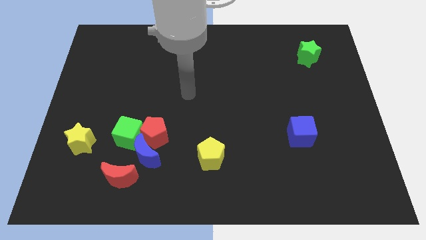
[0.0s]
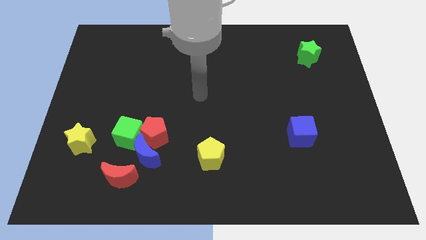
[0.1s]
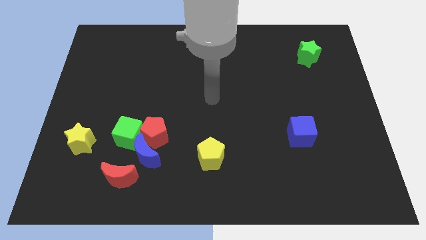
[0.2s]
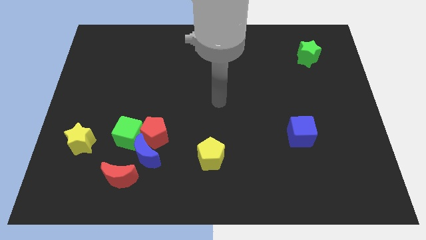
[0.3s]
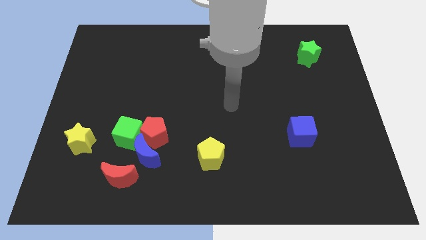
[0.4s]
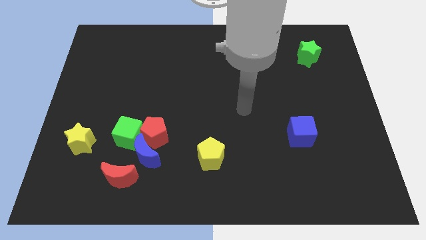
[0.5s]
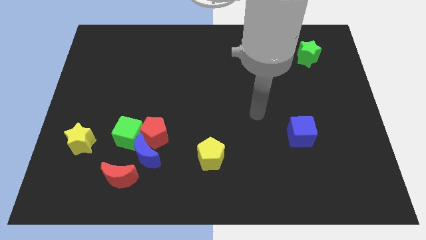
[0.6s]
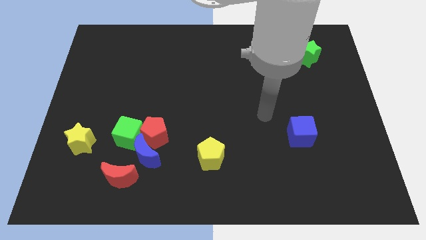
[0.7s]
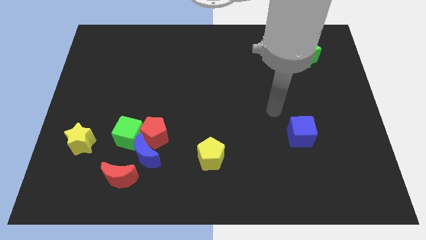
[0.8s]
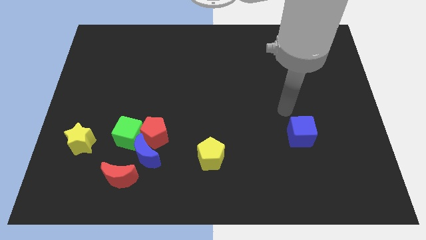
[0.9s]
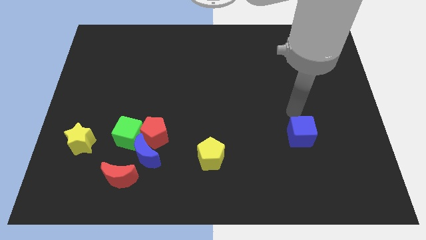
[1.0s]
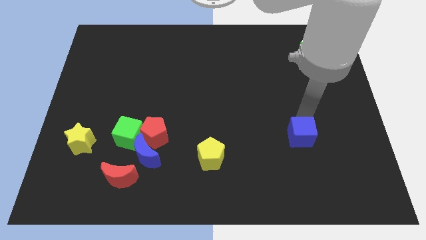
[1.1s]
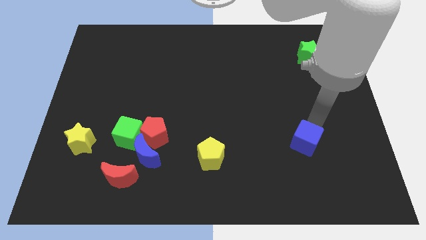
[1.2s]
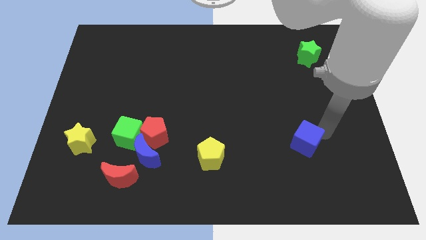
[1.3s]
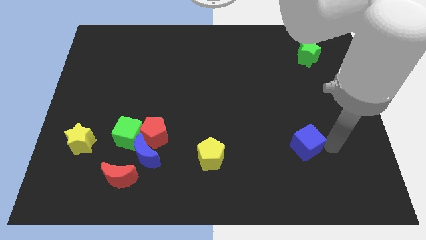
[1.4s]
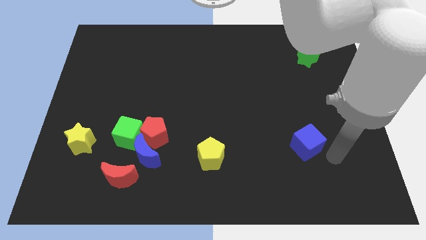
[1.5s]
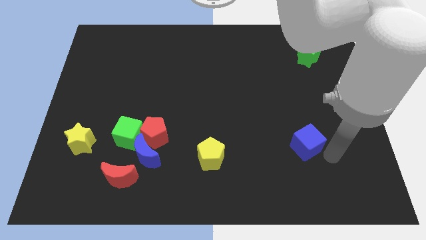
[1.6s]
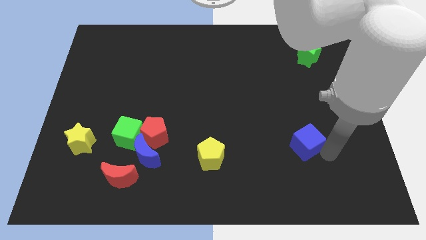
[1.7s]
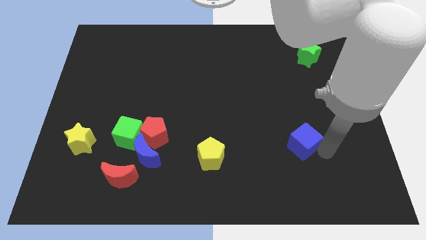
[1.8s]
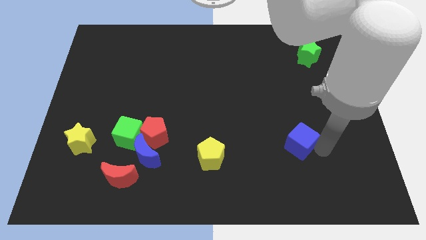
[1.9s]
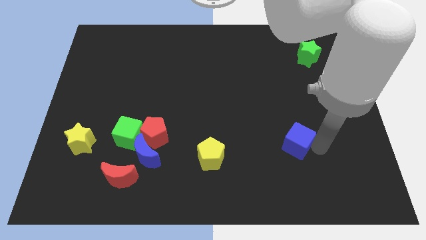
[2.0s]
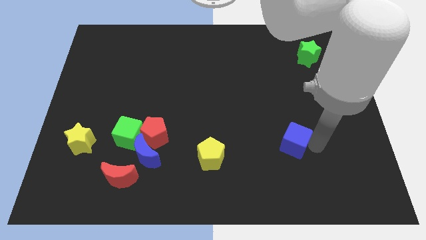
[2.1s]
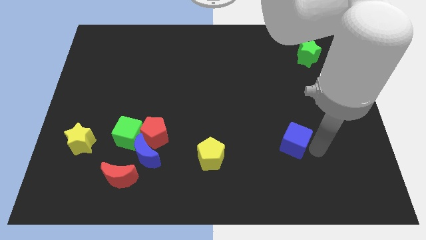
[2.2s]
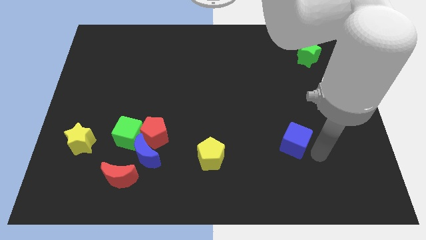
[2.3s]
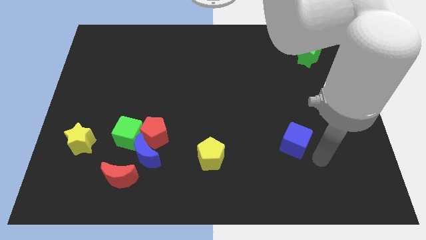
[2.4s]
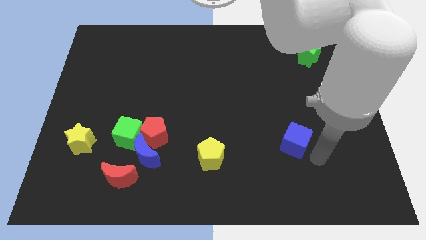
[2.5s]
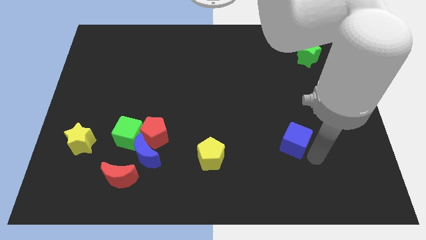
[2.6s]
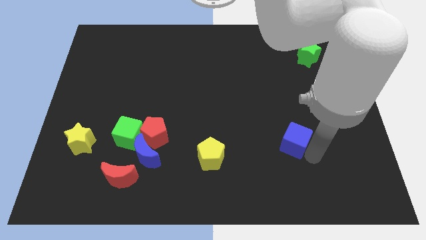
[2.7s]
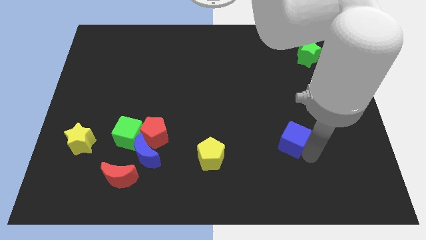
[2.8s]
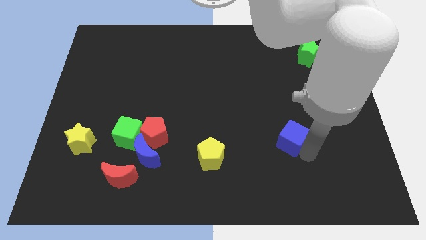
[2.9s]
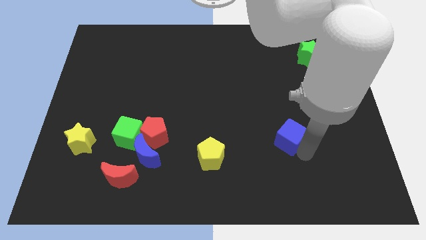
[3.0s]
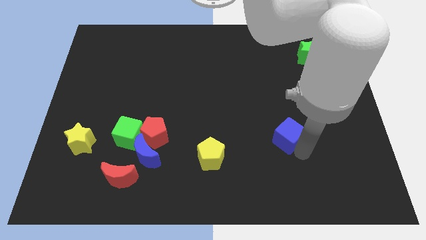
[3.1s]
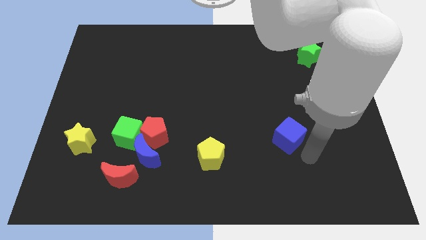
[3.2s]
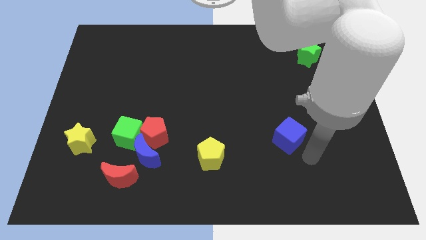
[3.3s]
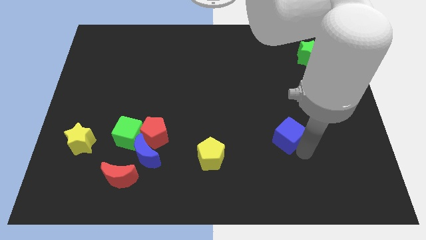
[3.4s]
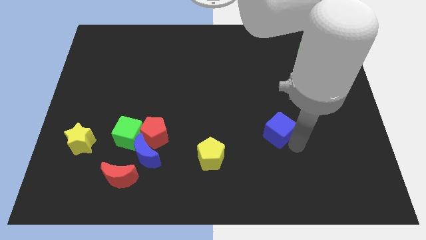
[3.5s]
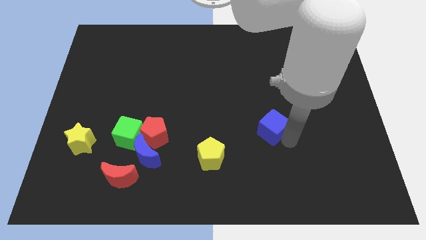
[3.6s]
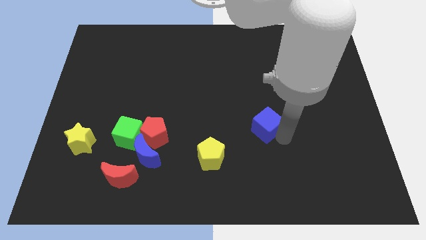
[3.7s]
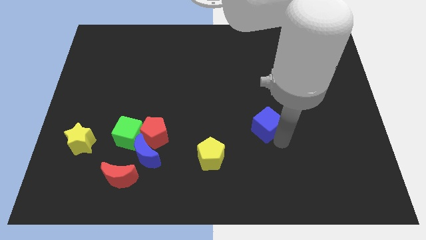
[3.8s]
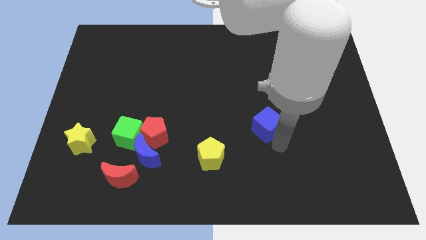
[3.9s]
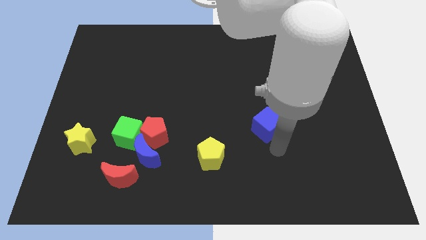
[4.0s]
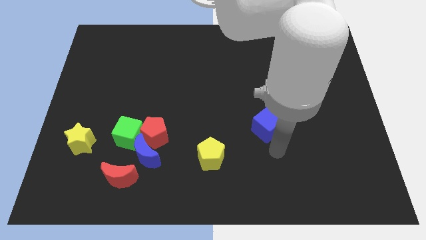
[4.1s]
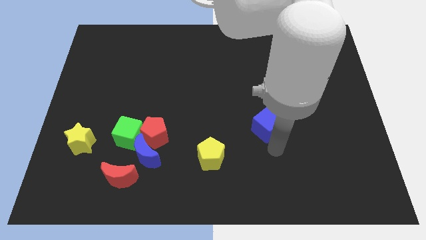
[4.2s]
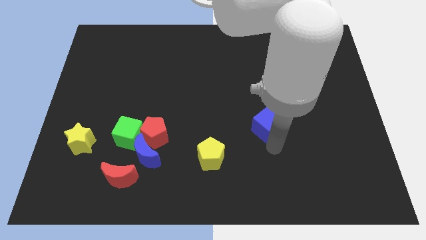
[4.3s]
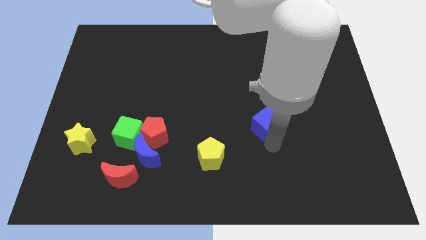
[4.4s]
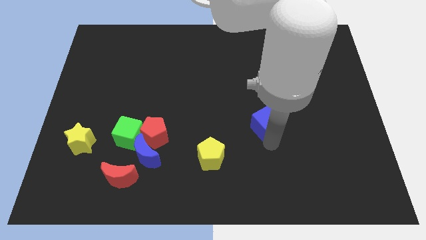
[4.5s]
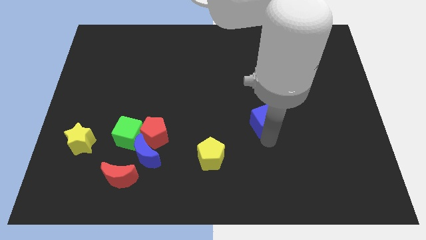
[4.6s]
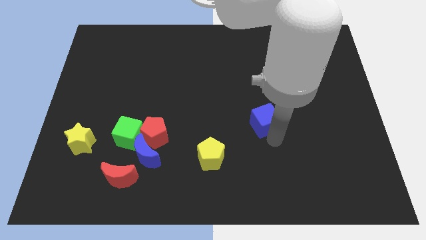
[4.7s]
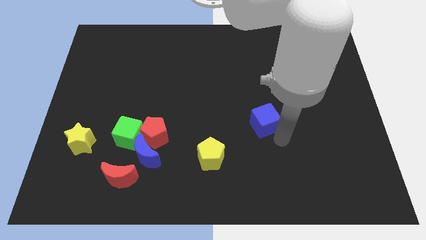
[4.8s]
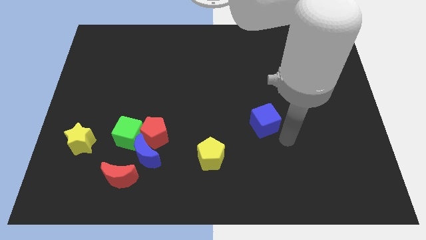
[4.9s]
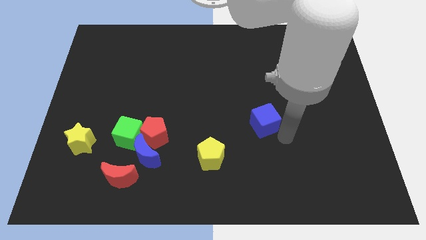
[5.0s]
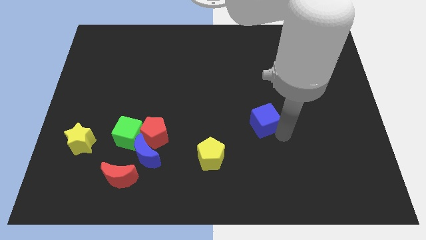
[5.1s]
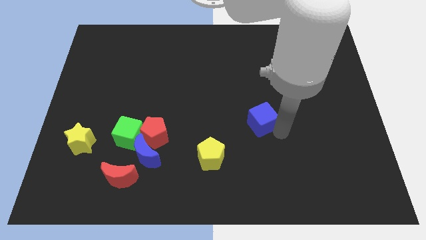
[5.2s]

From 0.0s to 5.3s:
move the blue cube to the middle

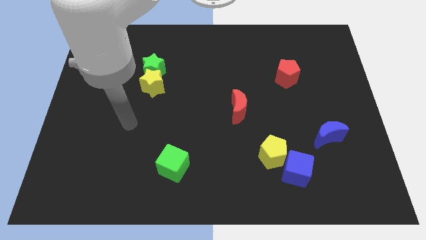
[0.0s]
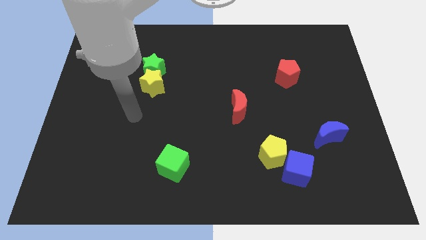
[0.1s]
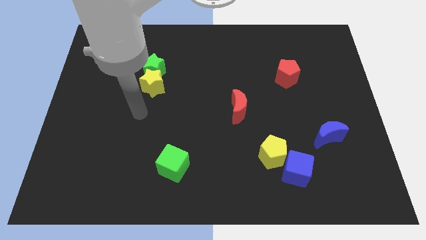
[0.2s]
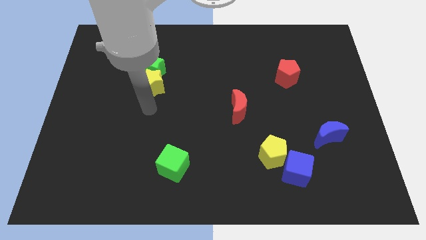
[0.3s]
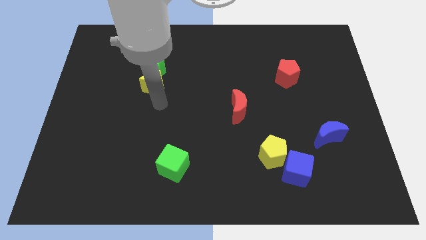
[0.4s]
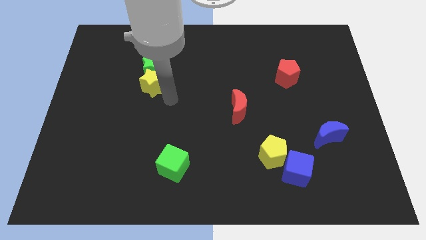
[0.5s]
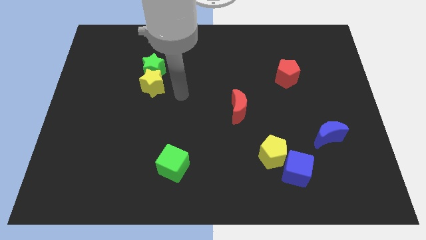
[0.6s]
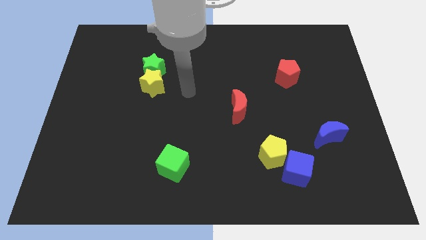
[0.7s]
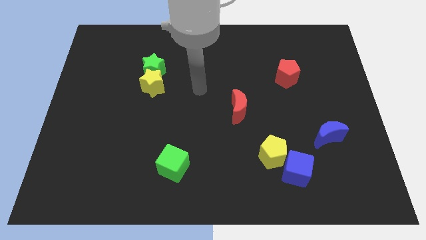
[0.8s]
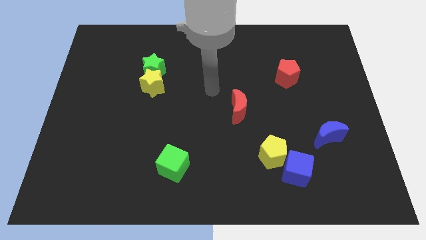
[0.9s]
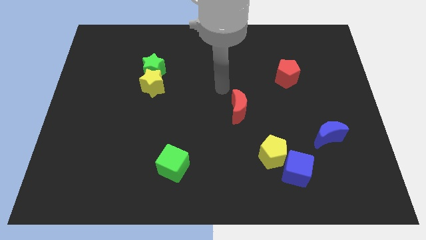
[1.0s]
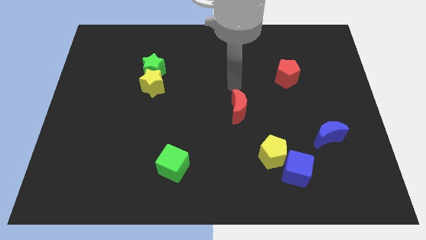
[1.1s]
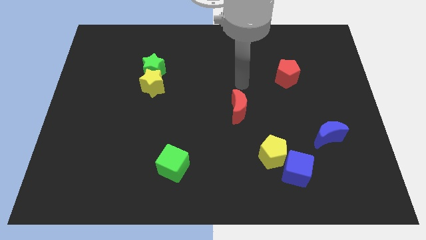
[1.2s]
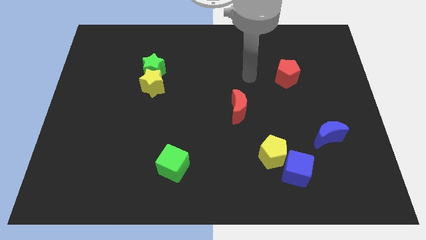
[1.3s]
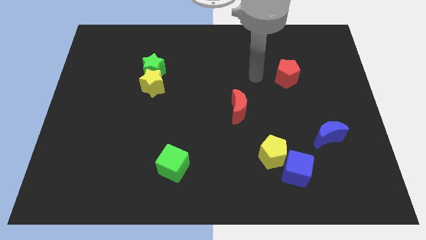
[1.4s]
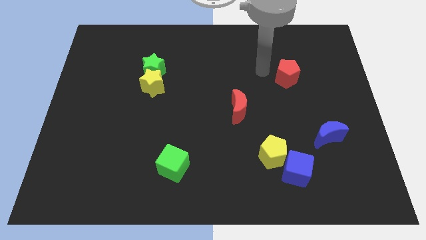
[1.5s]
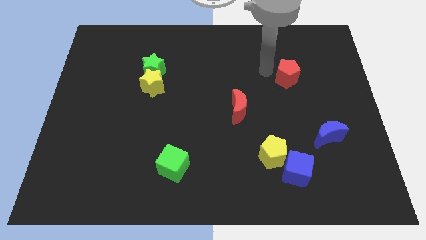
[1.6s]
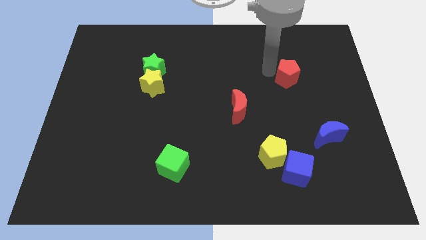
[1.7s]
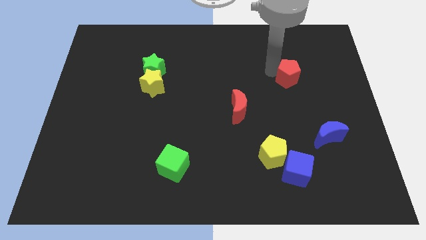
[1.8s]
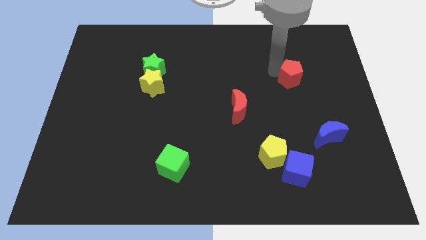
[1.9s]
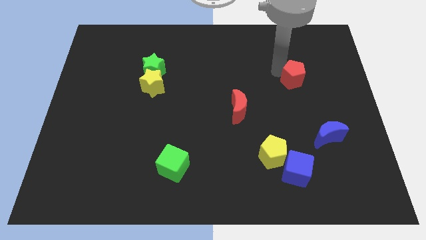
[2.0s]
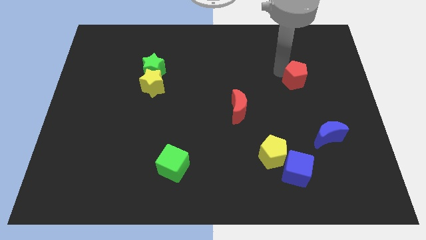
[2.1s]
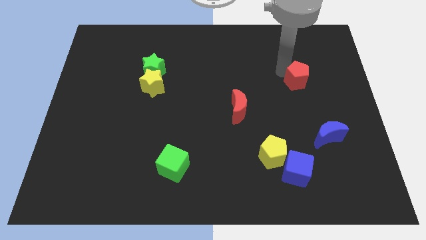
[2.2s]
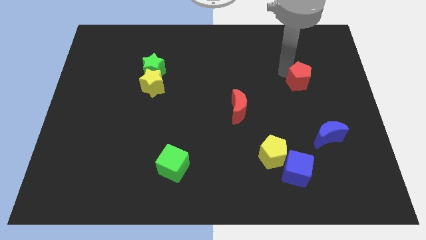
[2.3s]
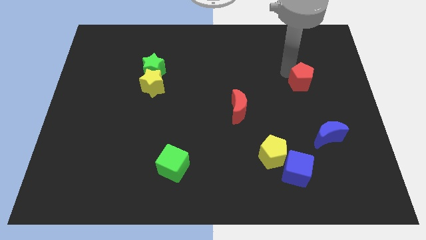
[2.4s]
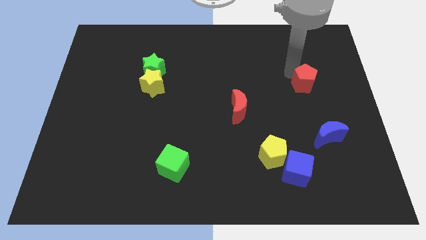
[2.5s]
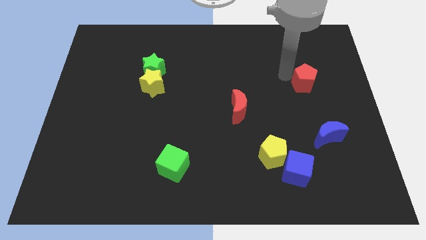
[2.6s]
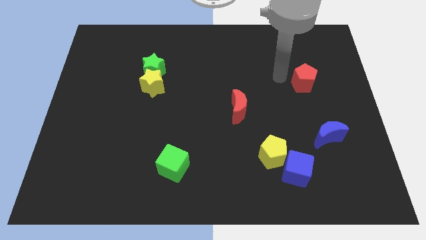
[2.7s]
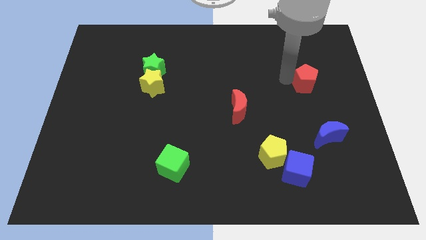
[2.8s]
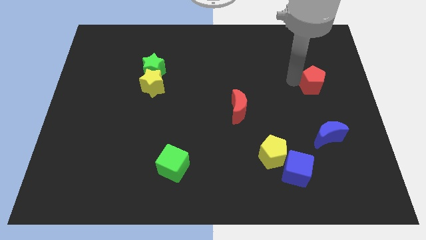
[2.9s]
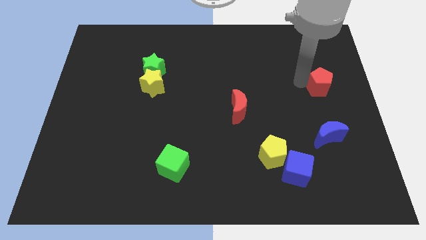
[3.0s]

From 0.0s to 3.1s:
slide the red pentagon to the center right

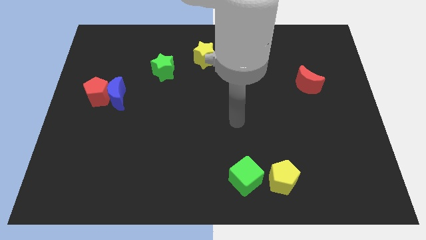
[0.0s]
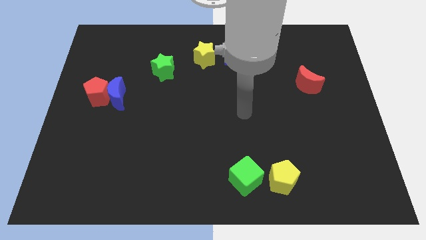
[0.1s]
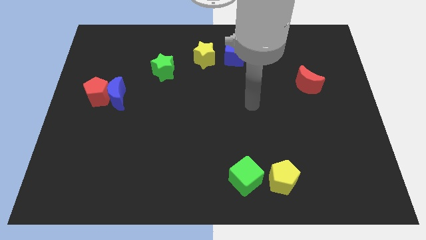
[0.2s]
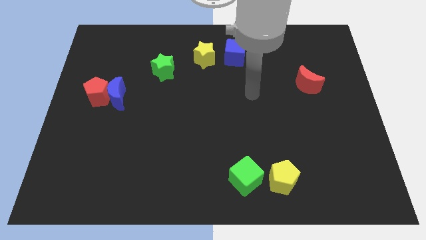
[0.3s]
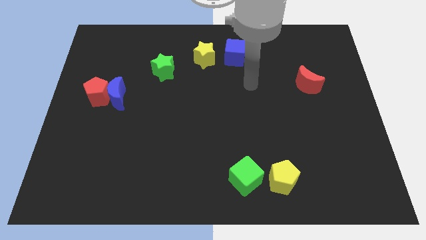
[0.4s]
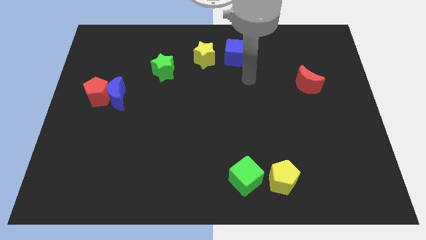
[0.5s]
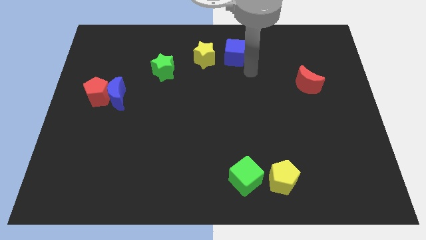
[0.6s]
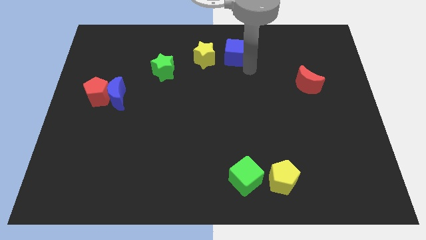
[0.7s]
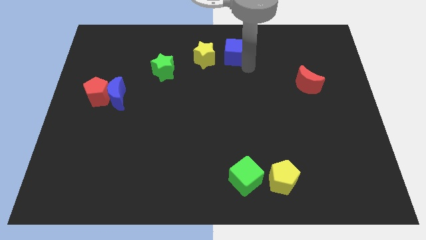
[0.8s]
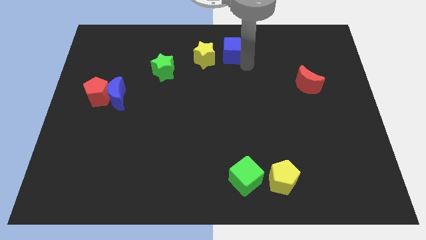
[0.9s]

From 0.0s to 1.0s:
push the blue cube to the top
